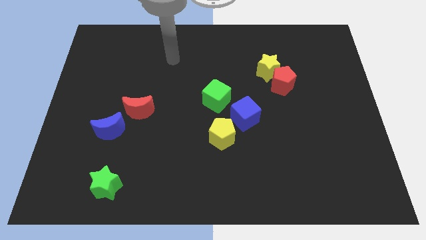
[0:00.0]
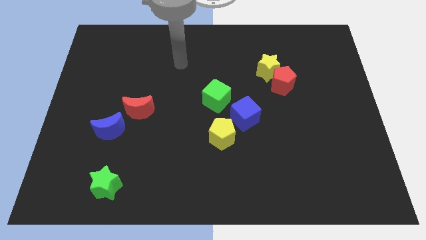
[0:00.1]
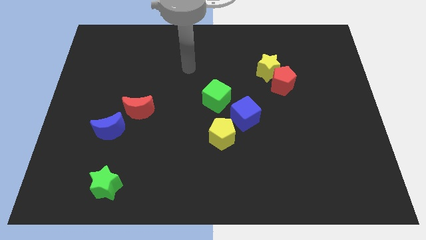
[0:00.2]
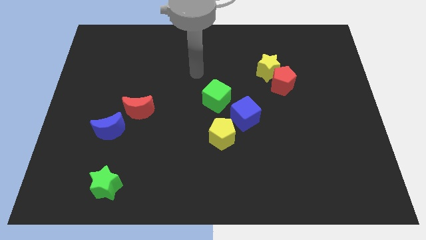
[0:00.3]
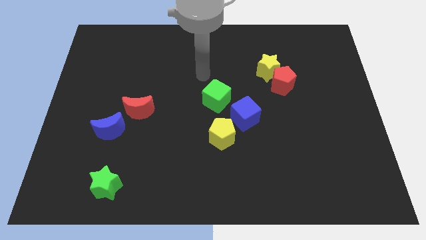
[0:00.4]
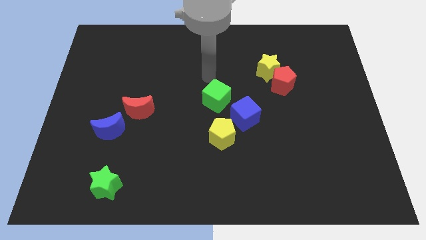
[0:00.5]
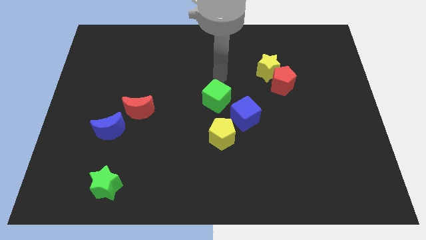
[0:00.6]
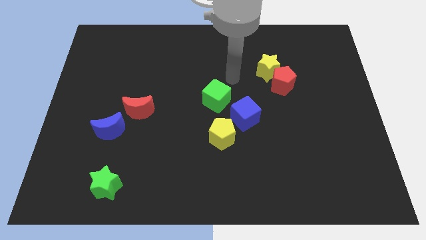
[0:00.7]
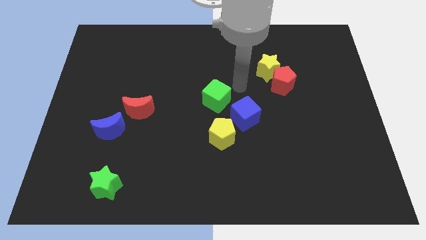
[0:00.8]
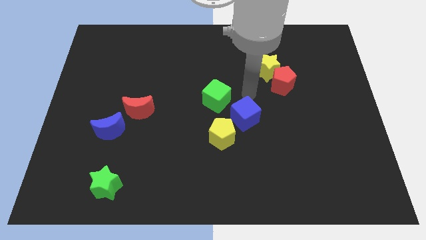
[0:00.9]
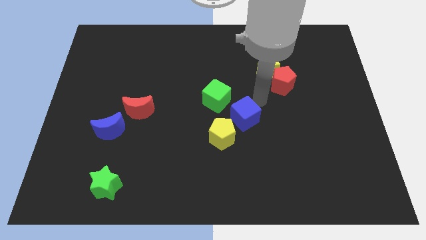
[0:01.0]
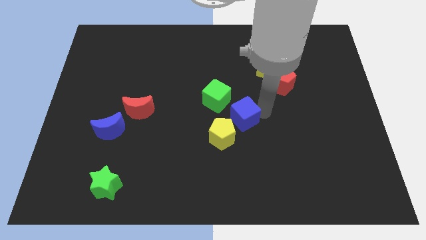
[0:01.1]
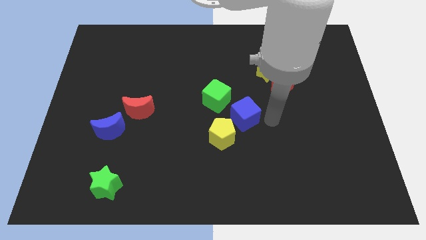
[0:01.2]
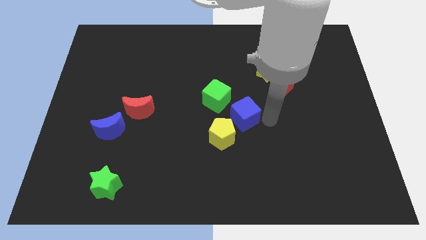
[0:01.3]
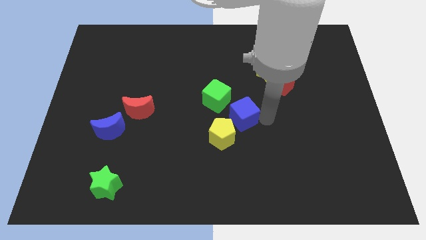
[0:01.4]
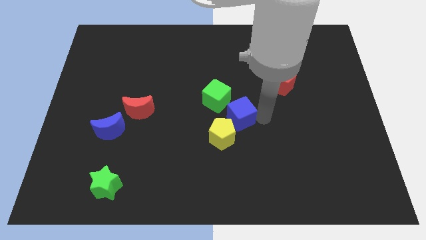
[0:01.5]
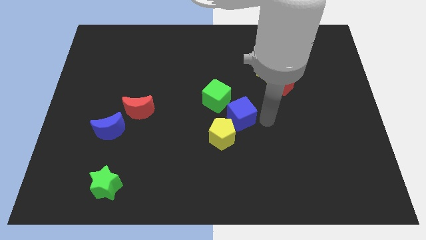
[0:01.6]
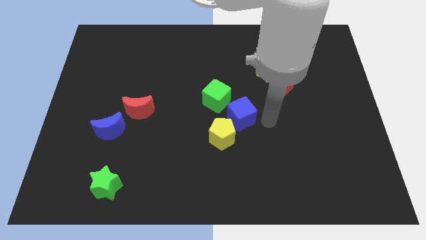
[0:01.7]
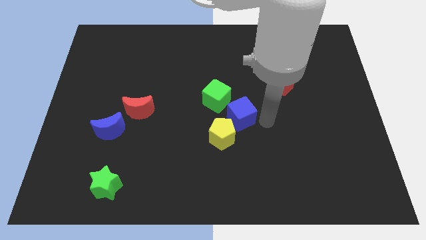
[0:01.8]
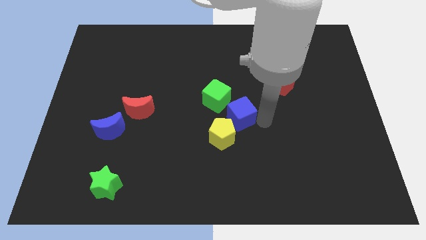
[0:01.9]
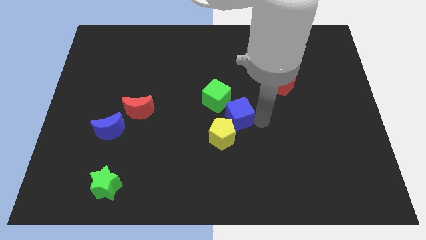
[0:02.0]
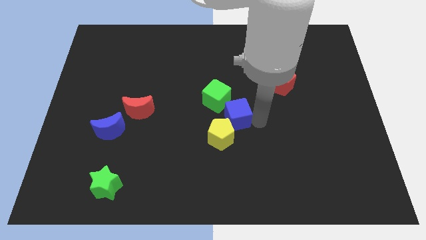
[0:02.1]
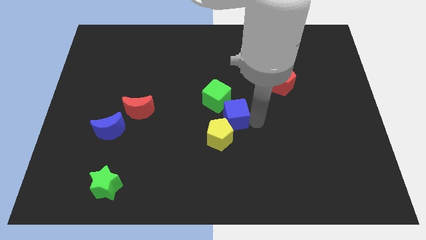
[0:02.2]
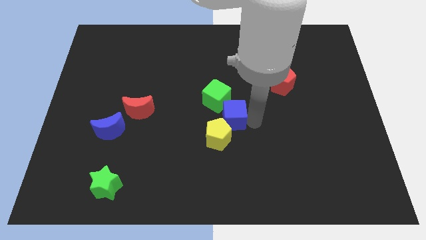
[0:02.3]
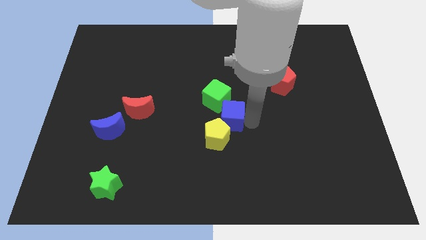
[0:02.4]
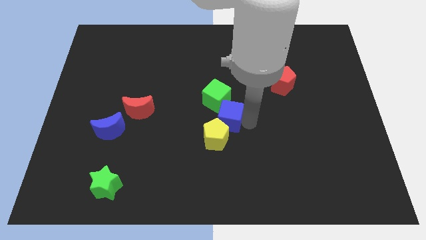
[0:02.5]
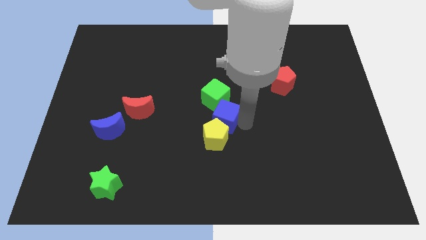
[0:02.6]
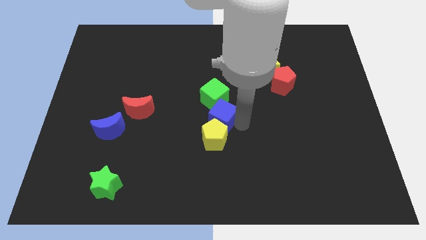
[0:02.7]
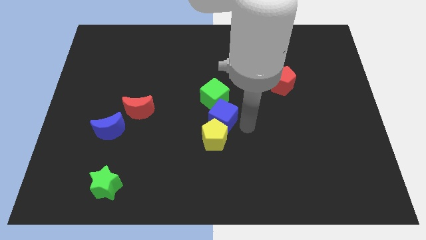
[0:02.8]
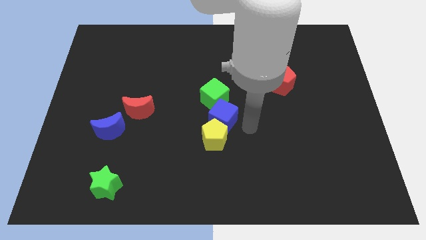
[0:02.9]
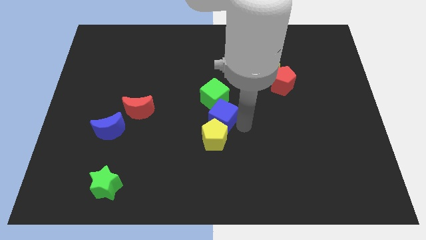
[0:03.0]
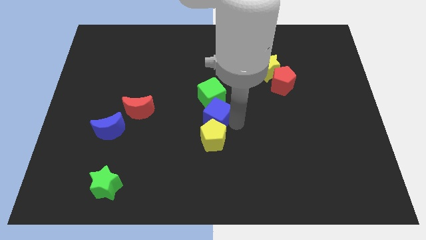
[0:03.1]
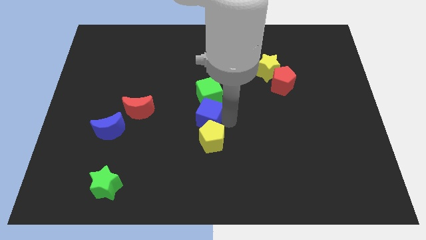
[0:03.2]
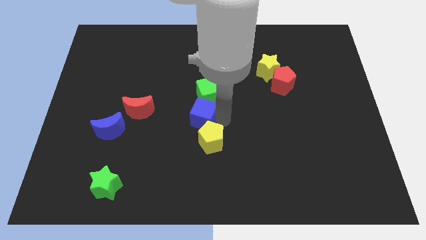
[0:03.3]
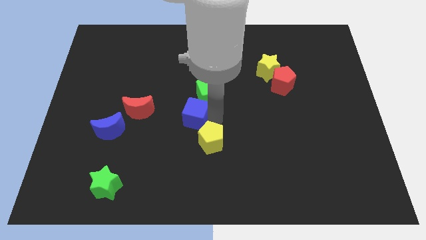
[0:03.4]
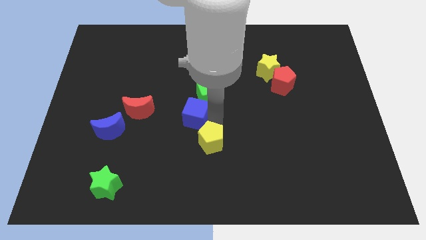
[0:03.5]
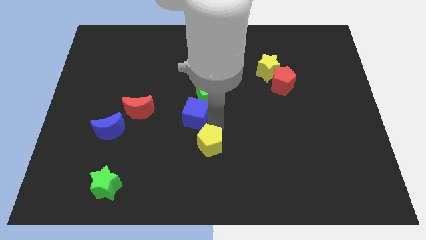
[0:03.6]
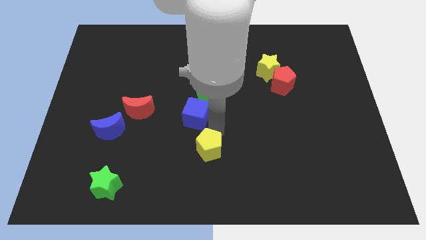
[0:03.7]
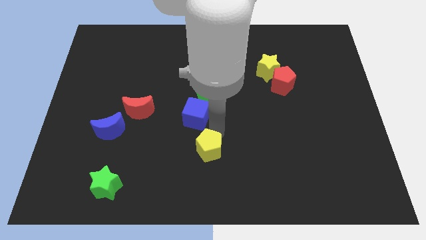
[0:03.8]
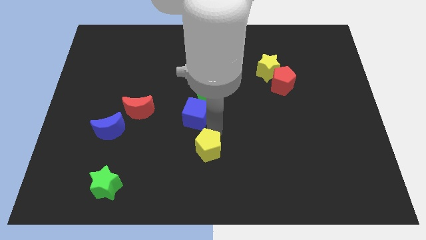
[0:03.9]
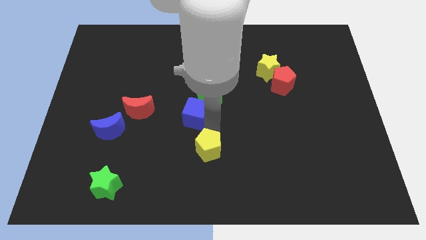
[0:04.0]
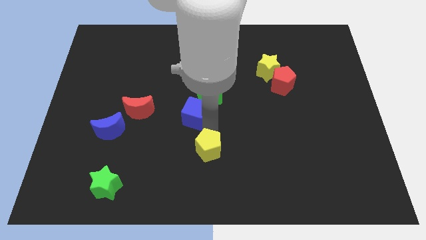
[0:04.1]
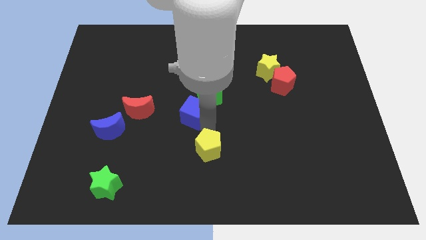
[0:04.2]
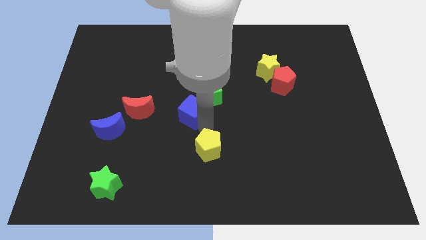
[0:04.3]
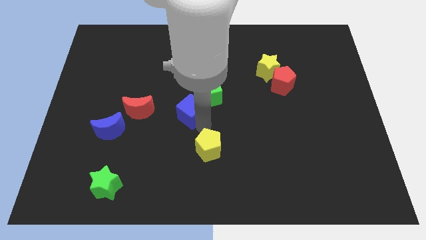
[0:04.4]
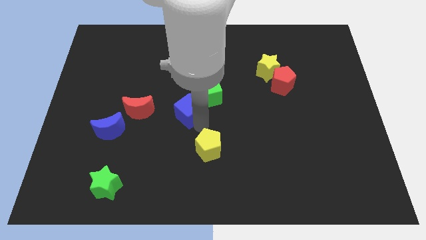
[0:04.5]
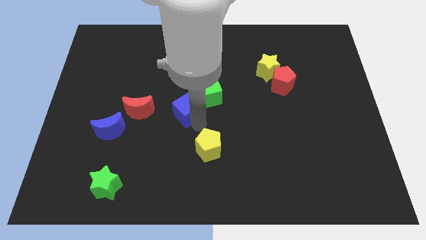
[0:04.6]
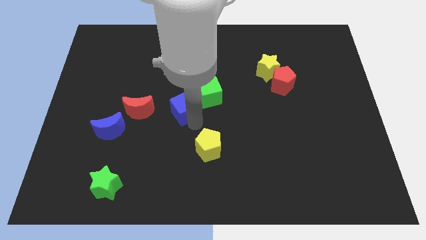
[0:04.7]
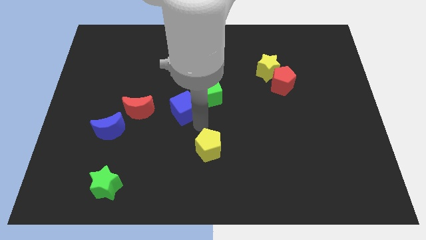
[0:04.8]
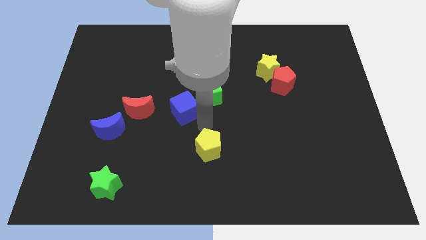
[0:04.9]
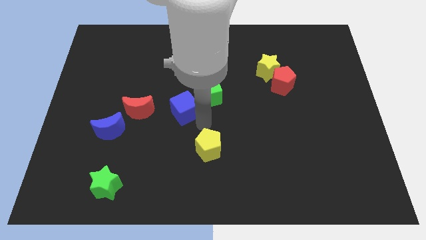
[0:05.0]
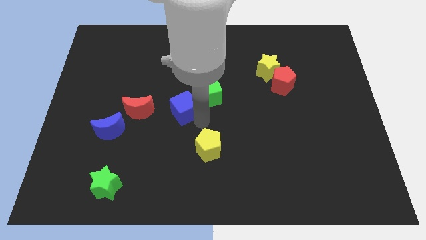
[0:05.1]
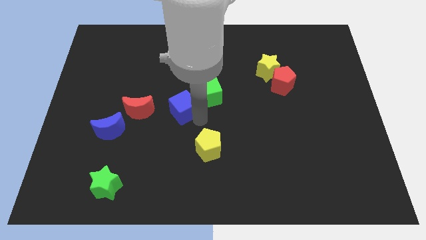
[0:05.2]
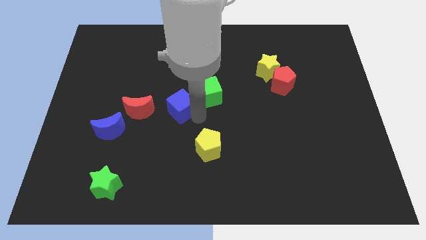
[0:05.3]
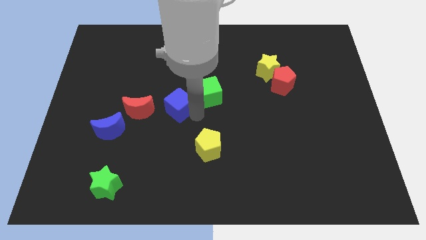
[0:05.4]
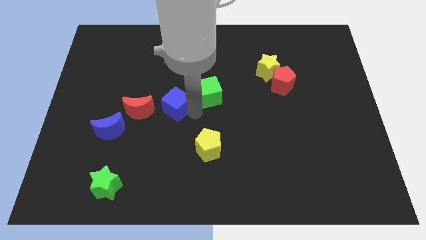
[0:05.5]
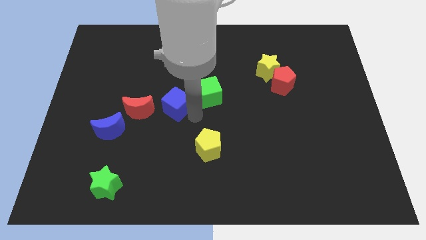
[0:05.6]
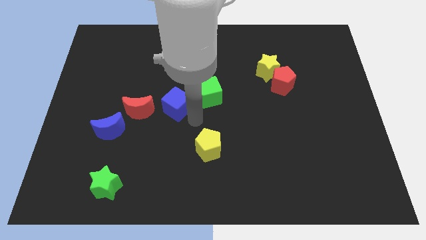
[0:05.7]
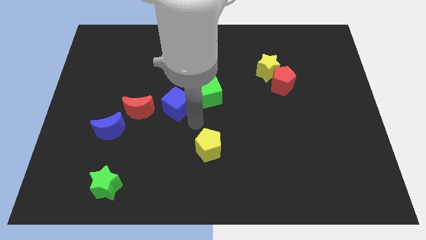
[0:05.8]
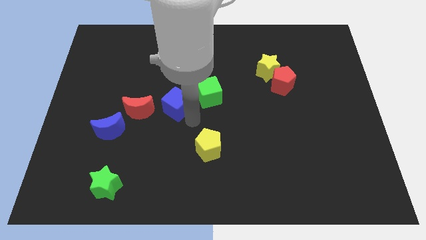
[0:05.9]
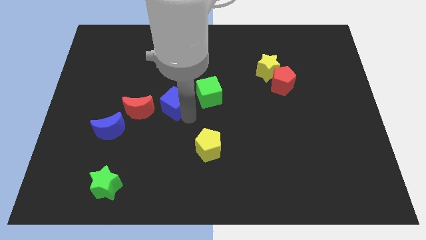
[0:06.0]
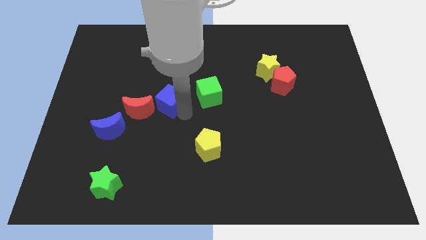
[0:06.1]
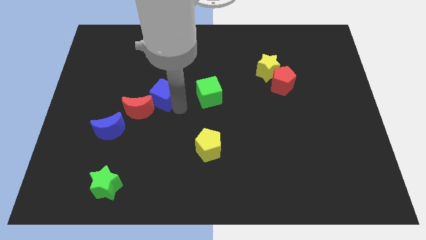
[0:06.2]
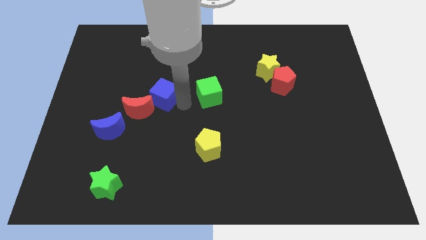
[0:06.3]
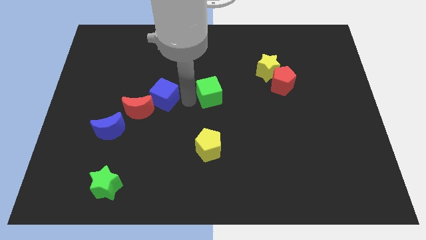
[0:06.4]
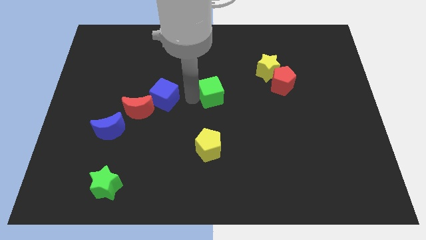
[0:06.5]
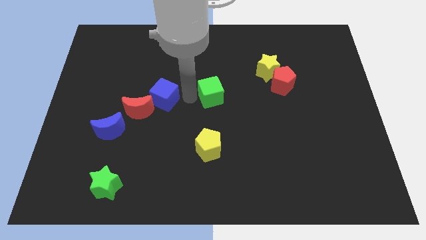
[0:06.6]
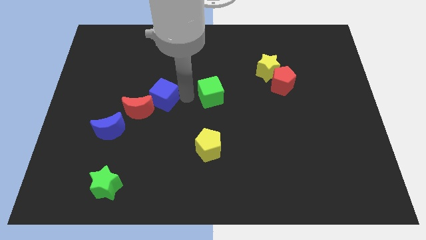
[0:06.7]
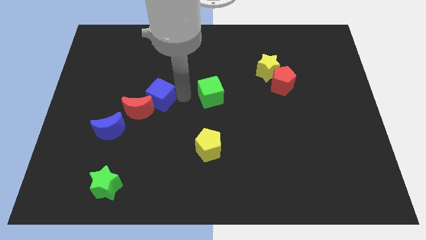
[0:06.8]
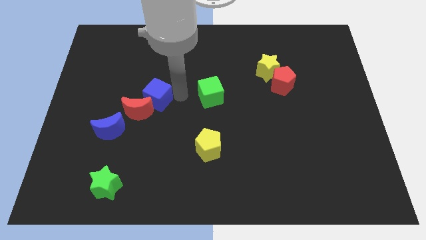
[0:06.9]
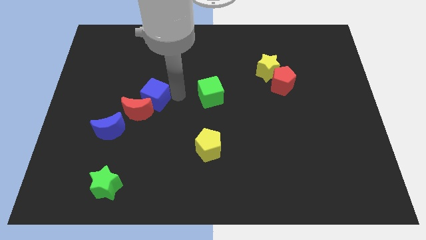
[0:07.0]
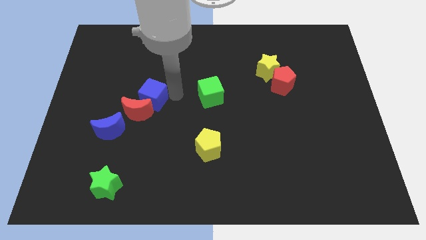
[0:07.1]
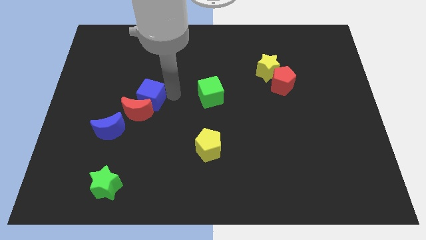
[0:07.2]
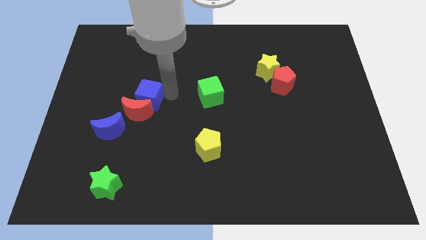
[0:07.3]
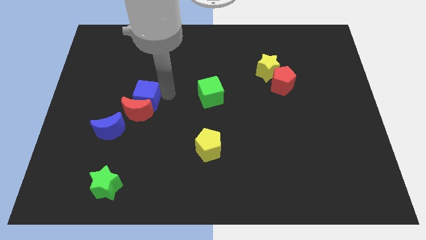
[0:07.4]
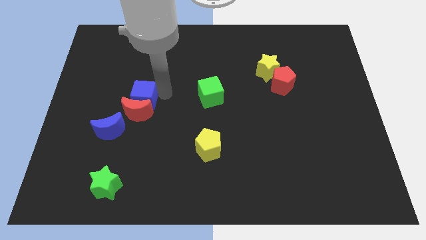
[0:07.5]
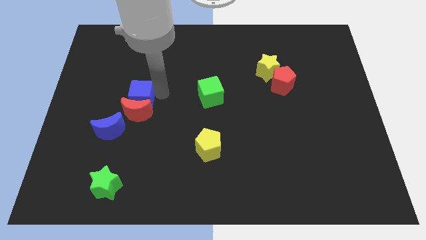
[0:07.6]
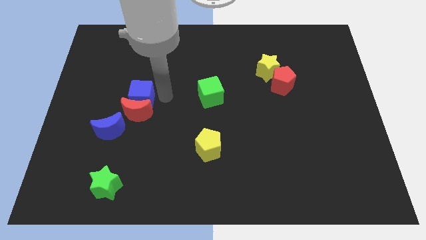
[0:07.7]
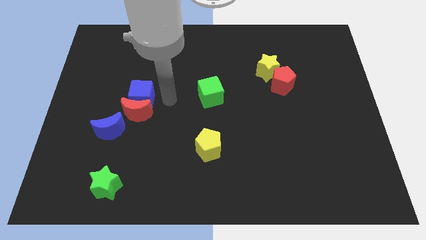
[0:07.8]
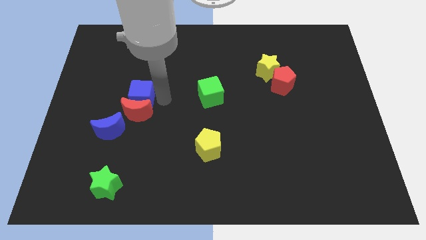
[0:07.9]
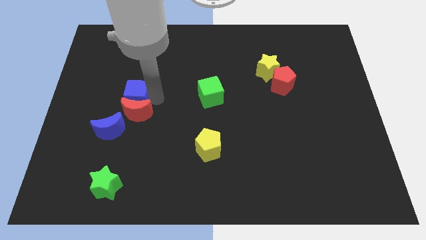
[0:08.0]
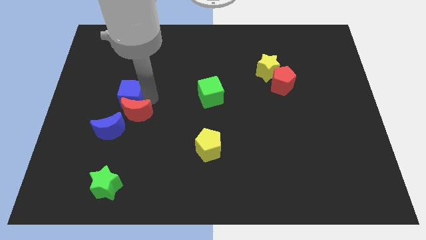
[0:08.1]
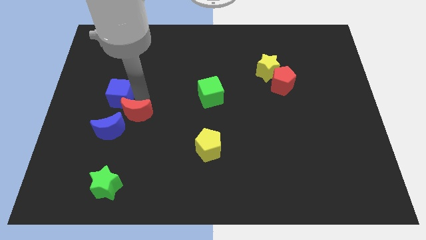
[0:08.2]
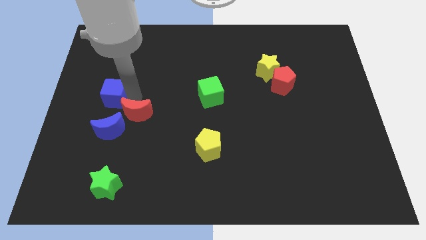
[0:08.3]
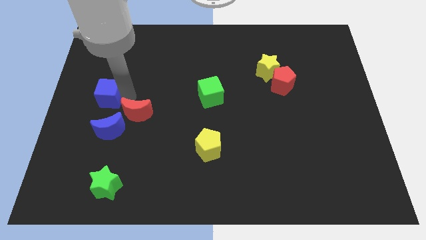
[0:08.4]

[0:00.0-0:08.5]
push the blue cube to the left side of the board
